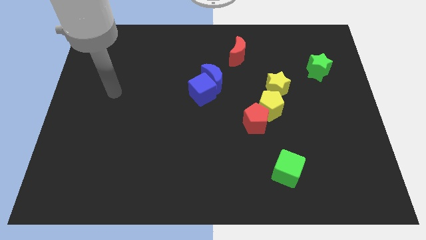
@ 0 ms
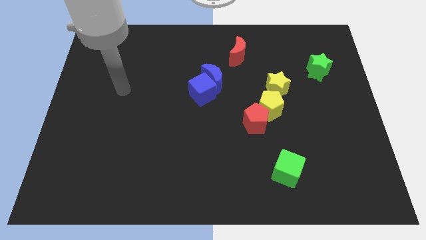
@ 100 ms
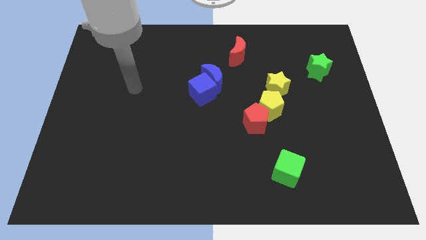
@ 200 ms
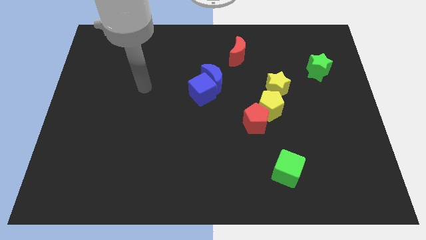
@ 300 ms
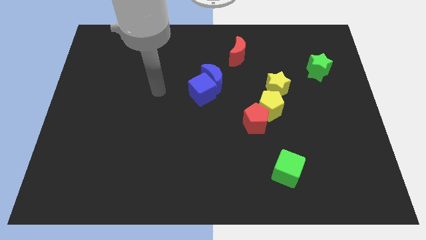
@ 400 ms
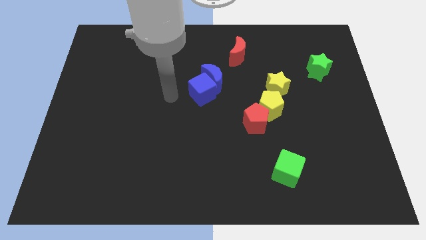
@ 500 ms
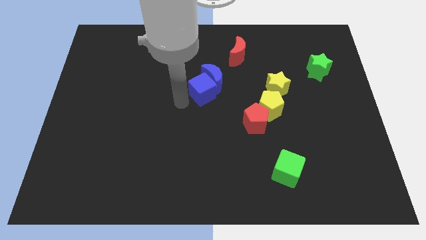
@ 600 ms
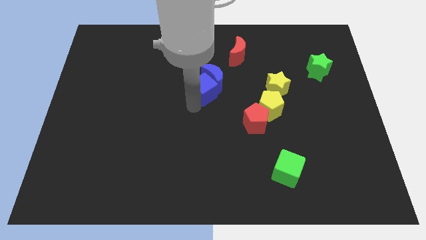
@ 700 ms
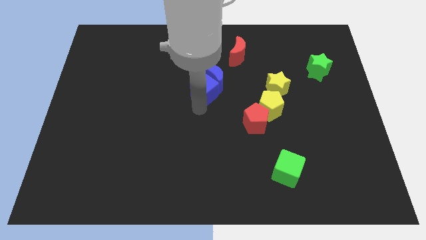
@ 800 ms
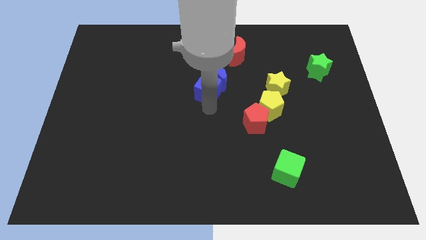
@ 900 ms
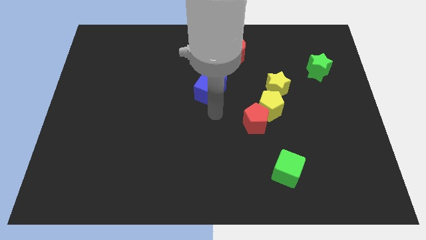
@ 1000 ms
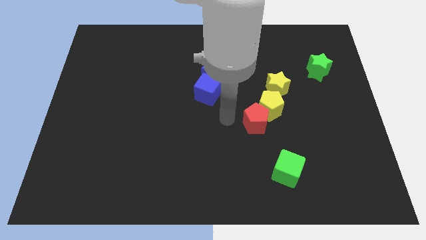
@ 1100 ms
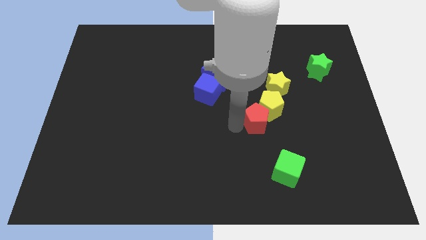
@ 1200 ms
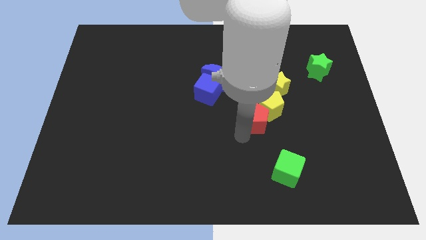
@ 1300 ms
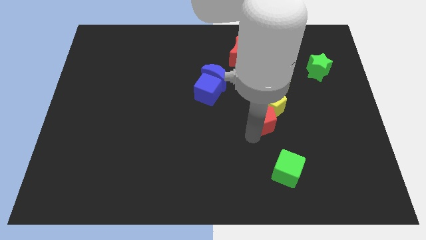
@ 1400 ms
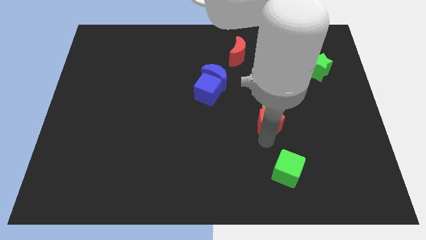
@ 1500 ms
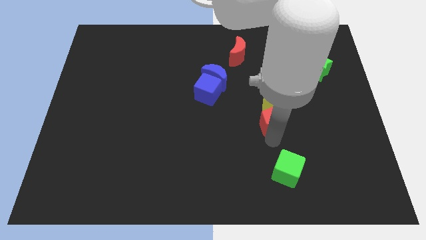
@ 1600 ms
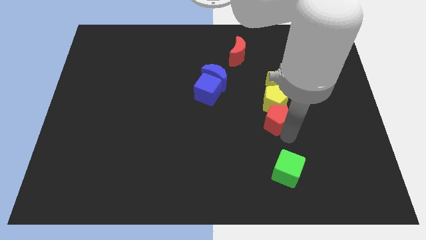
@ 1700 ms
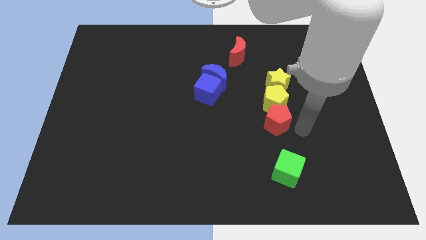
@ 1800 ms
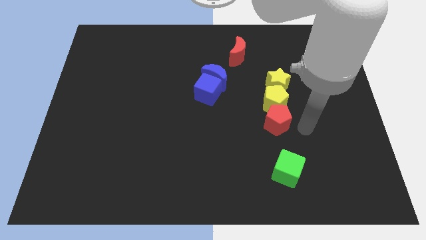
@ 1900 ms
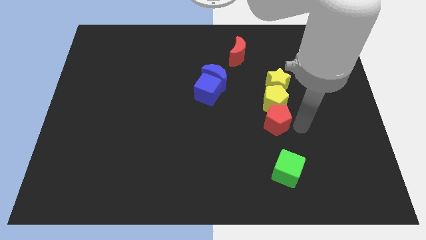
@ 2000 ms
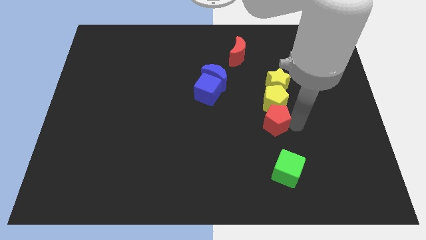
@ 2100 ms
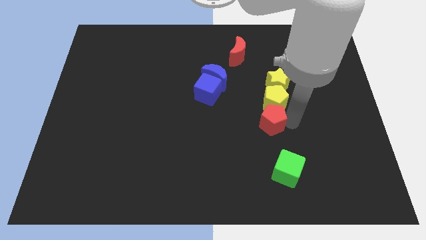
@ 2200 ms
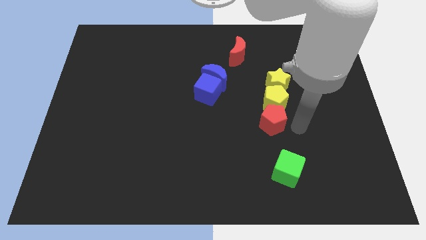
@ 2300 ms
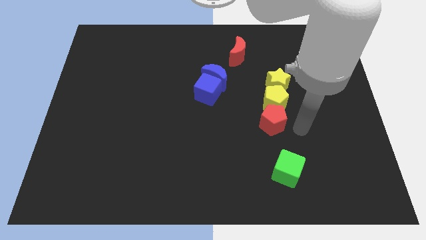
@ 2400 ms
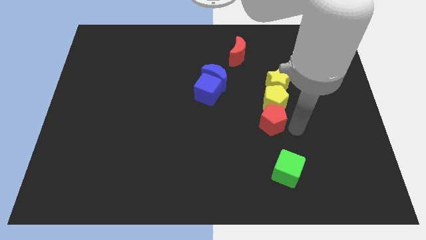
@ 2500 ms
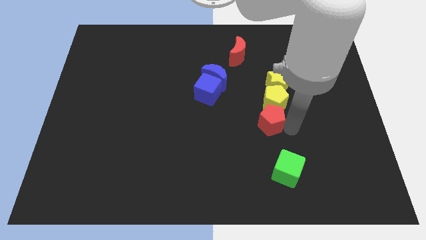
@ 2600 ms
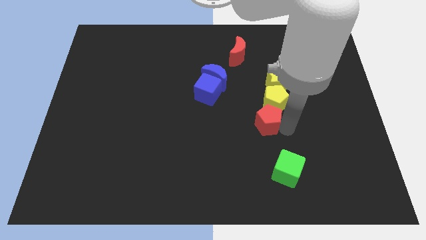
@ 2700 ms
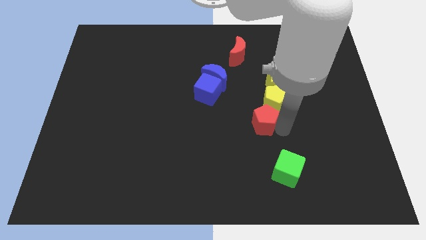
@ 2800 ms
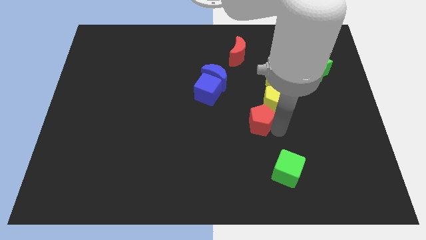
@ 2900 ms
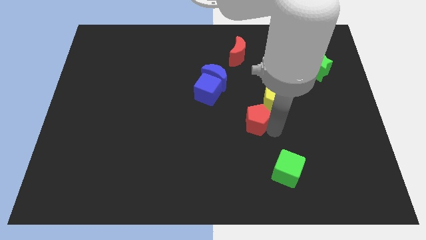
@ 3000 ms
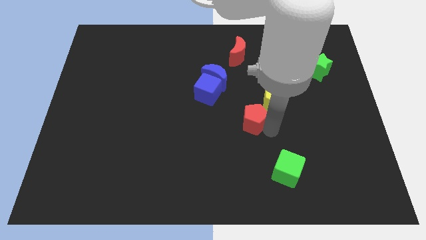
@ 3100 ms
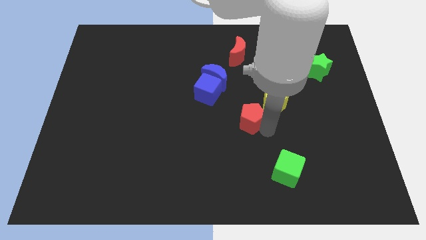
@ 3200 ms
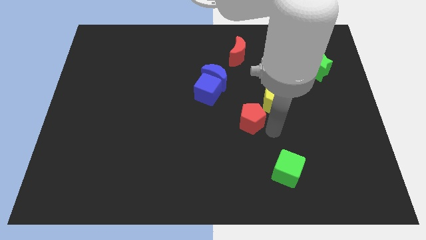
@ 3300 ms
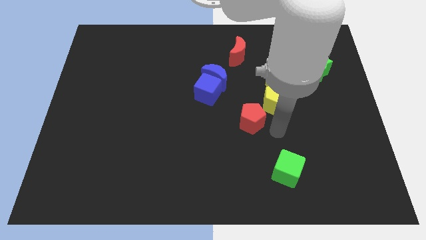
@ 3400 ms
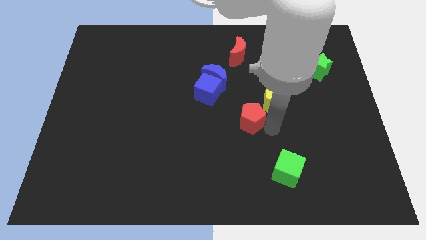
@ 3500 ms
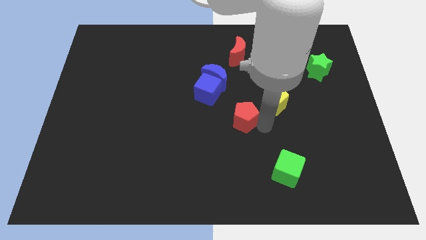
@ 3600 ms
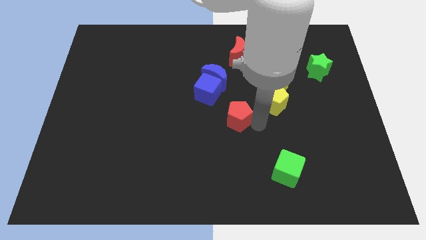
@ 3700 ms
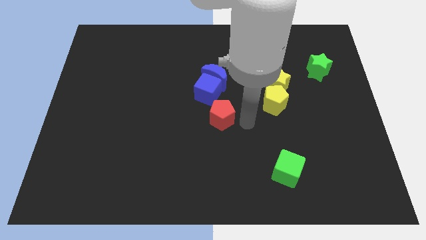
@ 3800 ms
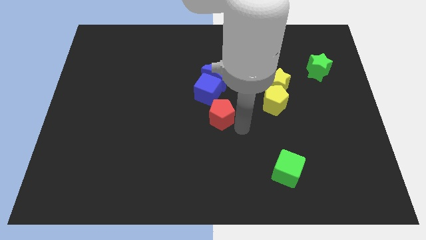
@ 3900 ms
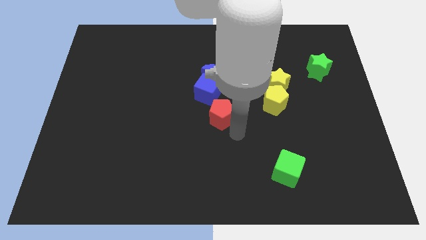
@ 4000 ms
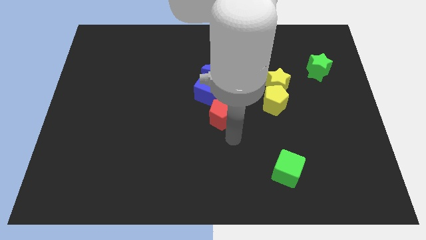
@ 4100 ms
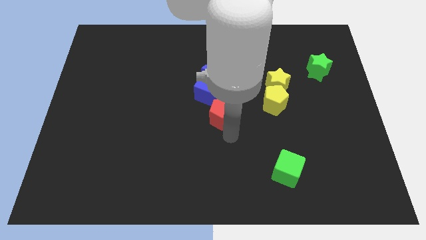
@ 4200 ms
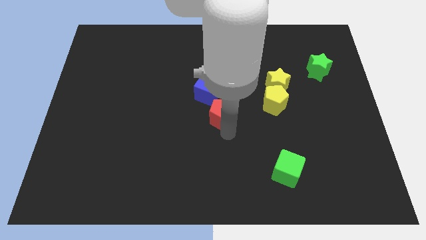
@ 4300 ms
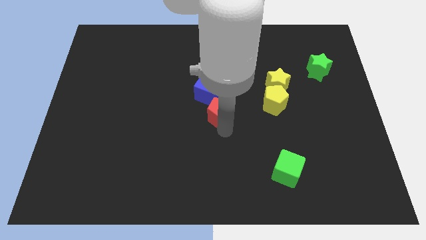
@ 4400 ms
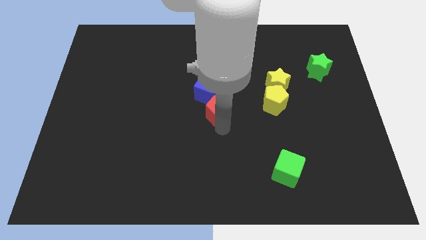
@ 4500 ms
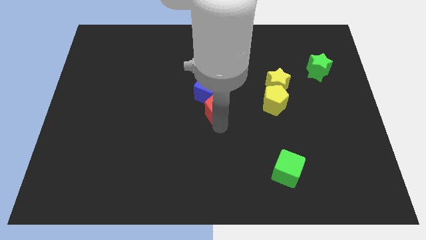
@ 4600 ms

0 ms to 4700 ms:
push the red pentagon next to the blue cube

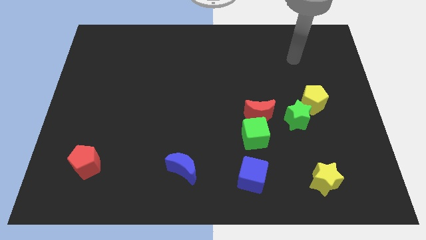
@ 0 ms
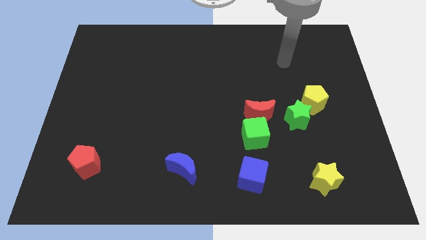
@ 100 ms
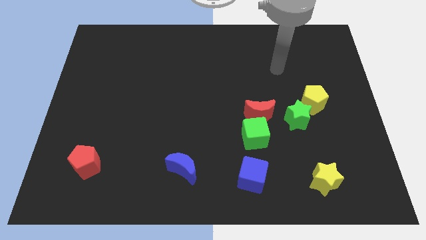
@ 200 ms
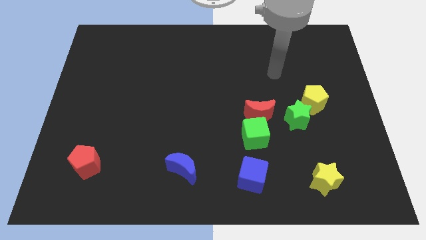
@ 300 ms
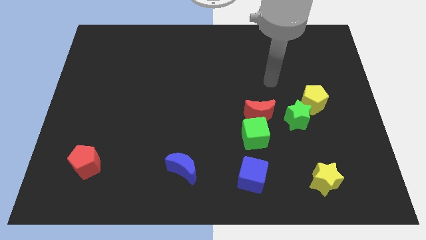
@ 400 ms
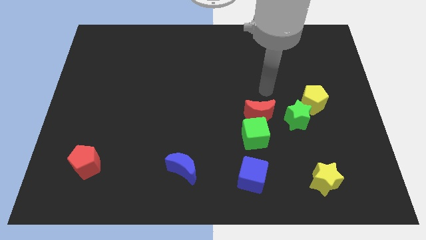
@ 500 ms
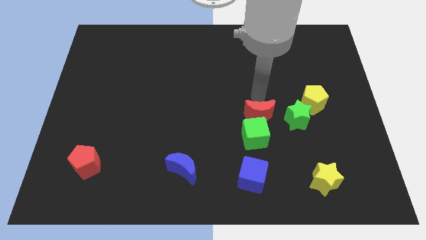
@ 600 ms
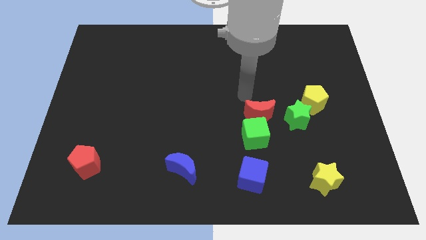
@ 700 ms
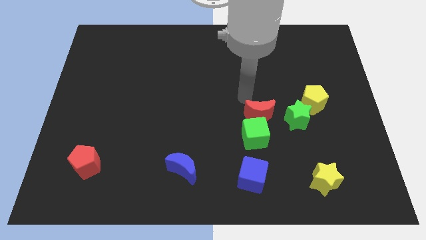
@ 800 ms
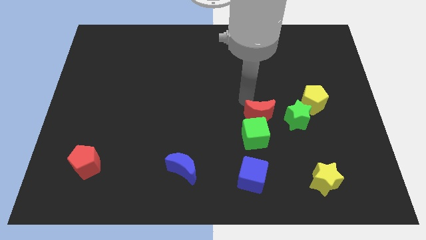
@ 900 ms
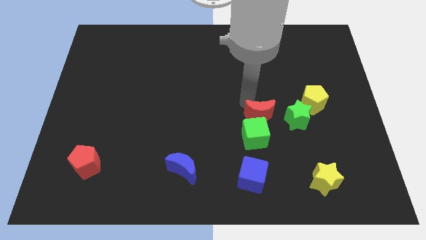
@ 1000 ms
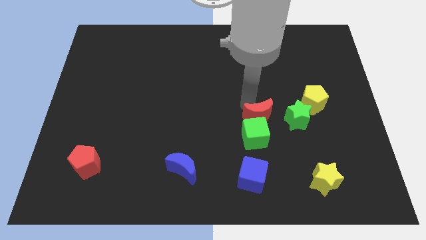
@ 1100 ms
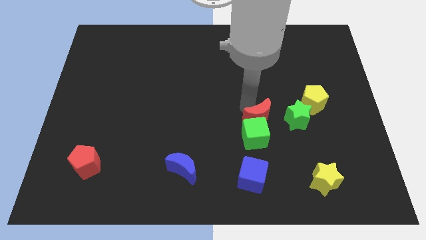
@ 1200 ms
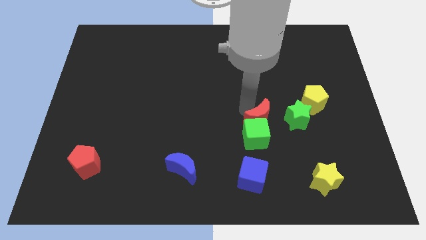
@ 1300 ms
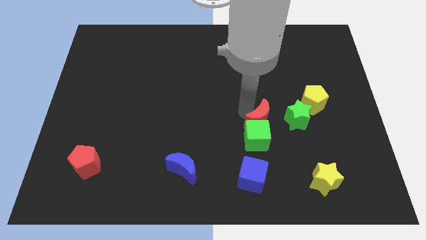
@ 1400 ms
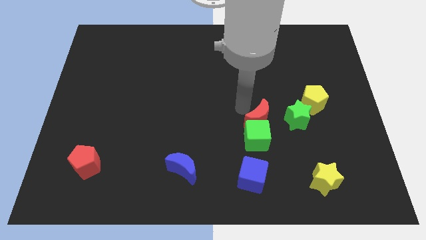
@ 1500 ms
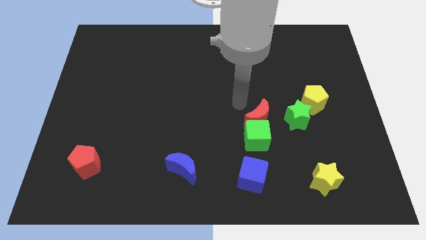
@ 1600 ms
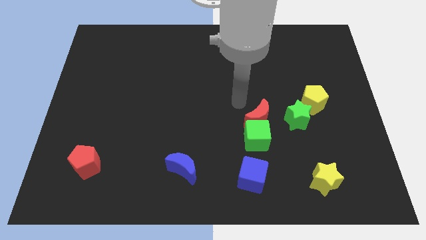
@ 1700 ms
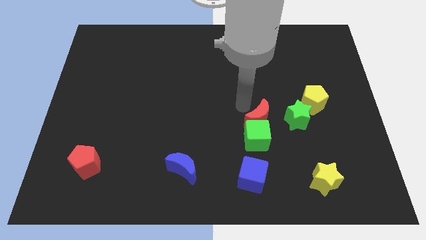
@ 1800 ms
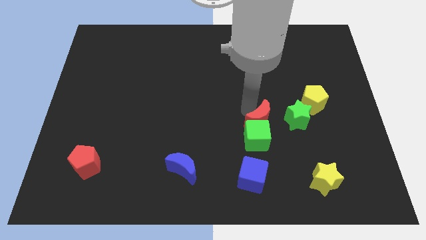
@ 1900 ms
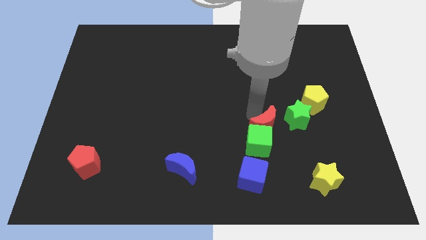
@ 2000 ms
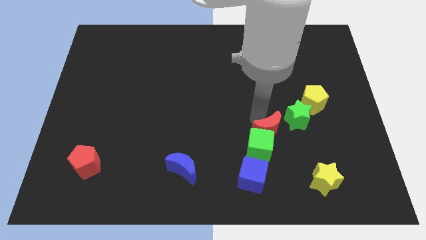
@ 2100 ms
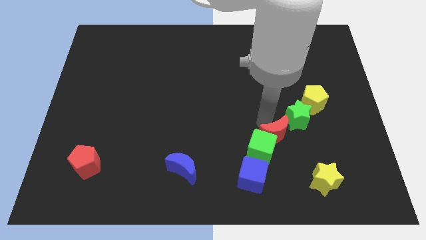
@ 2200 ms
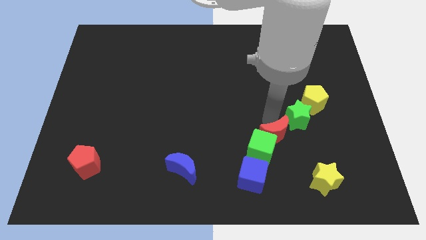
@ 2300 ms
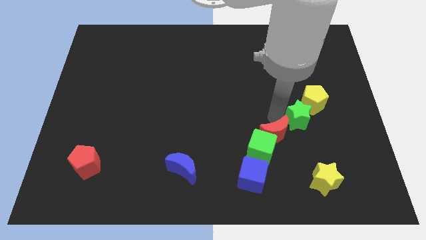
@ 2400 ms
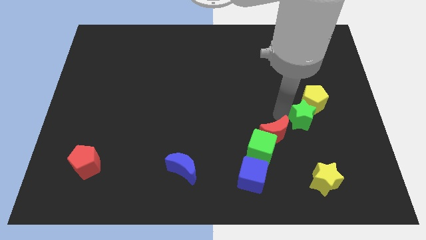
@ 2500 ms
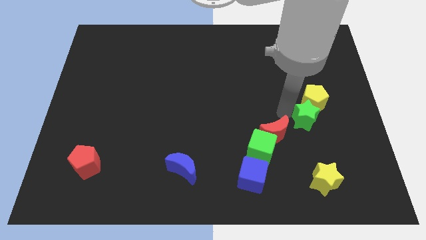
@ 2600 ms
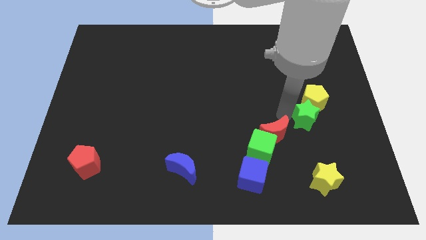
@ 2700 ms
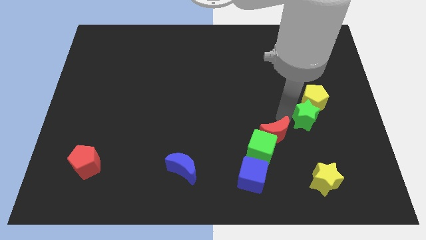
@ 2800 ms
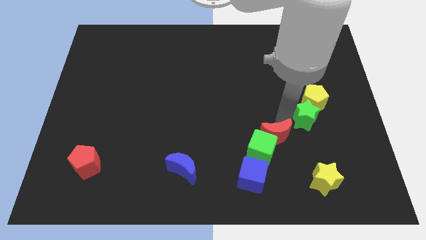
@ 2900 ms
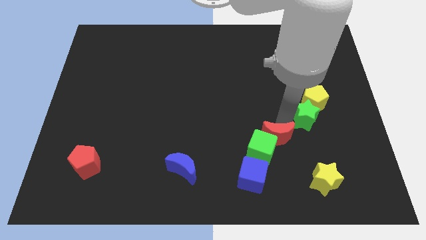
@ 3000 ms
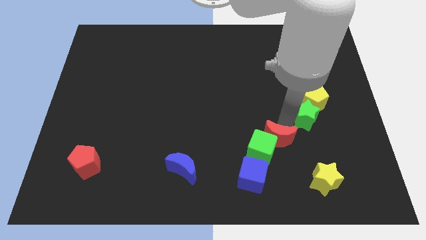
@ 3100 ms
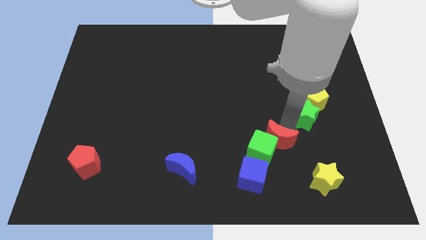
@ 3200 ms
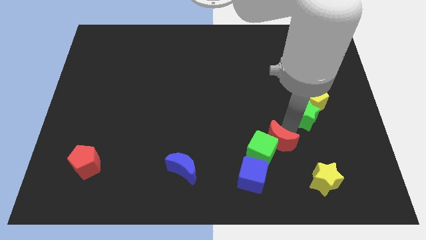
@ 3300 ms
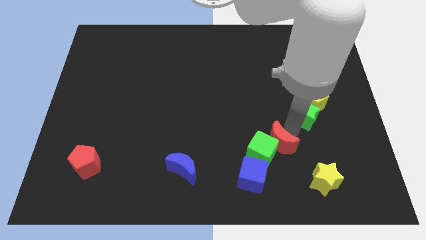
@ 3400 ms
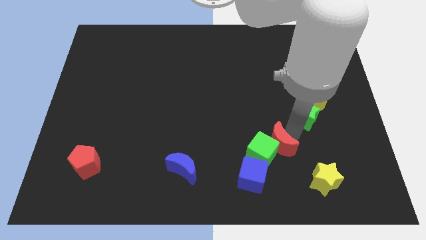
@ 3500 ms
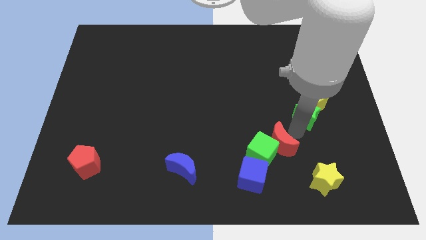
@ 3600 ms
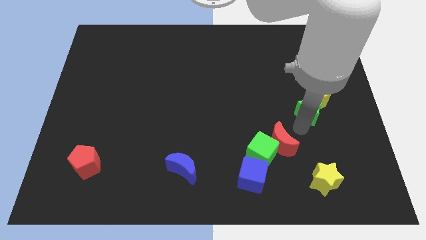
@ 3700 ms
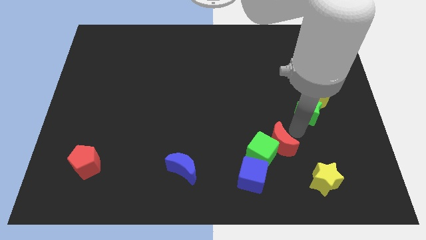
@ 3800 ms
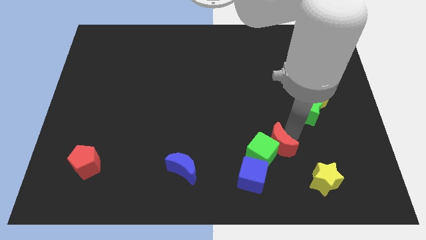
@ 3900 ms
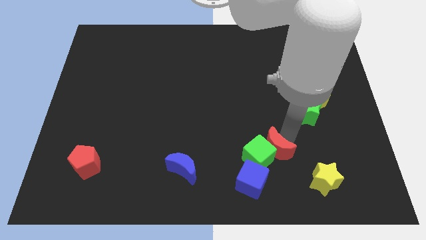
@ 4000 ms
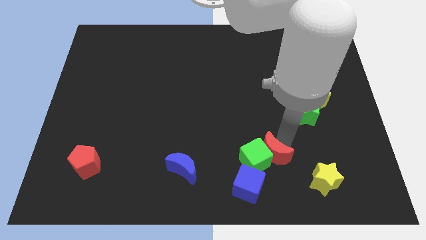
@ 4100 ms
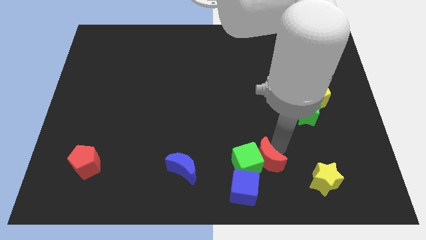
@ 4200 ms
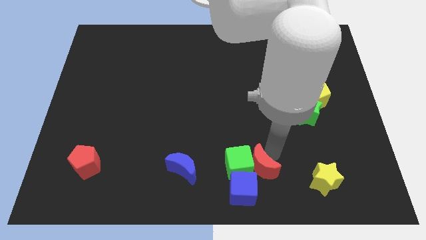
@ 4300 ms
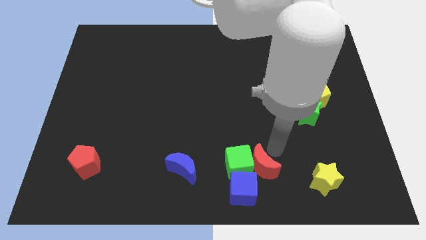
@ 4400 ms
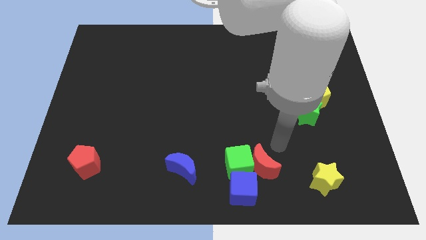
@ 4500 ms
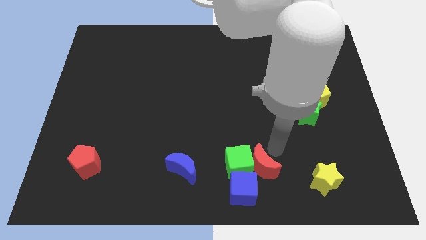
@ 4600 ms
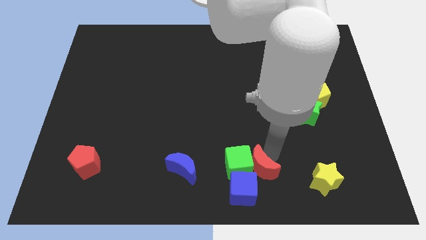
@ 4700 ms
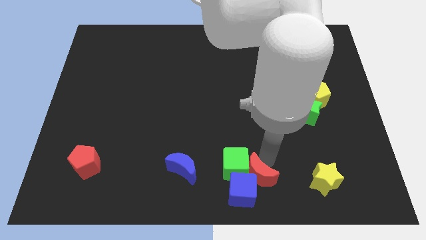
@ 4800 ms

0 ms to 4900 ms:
slide the red moon towards the blue cube
